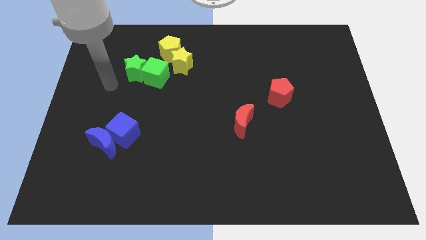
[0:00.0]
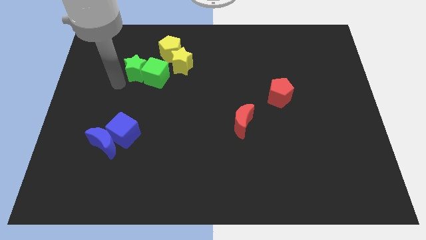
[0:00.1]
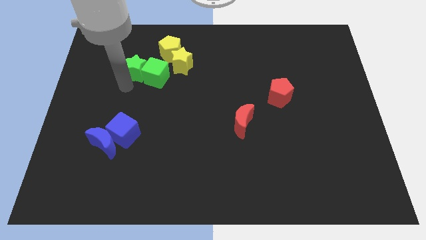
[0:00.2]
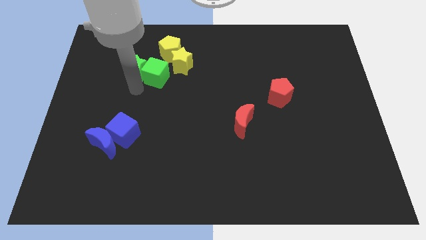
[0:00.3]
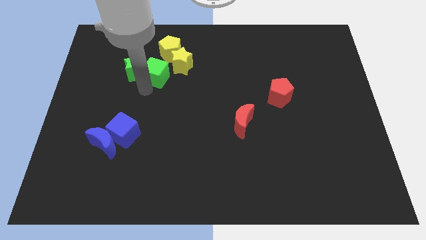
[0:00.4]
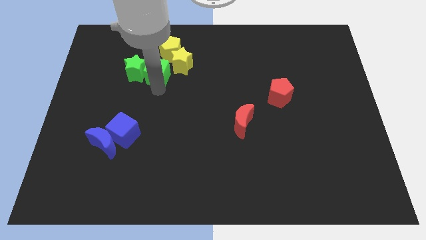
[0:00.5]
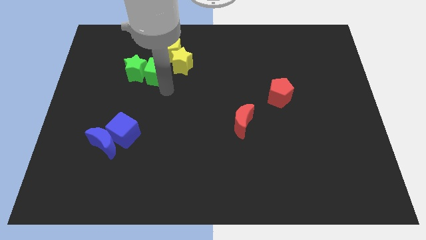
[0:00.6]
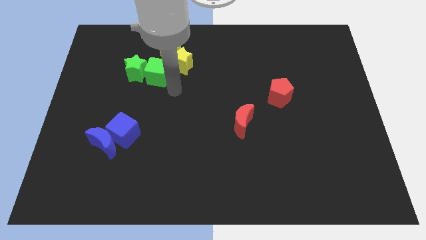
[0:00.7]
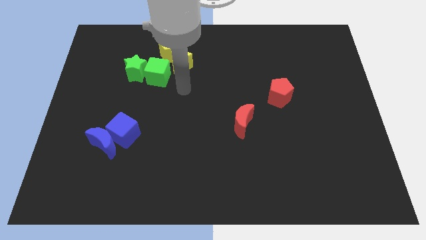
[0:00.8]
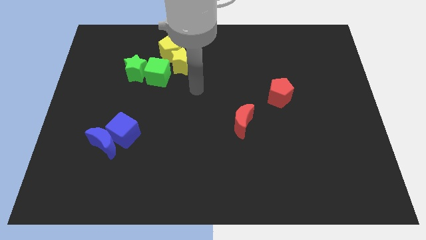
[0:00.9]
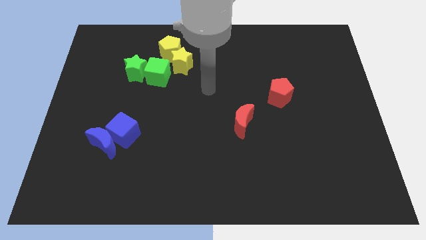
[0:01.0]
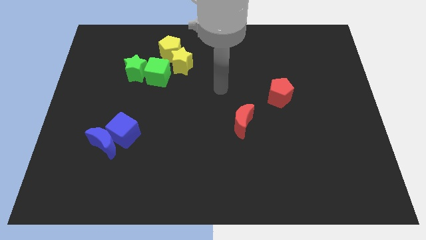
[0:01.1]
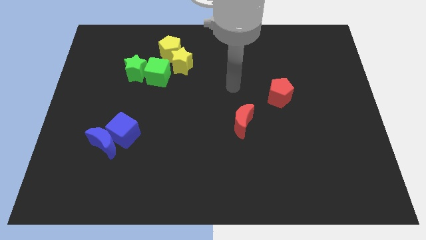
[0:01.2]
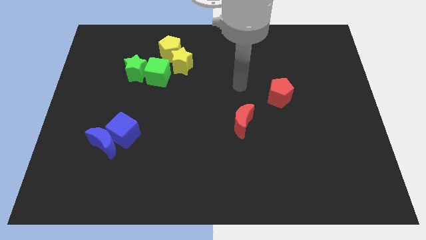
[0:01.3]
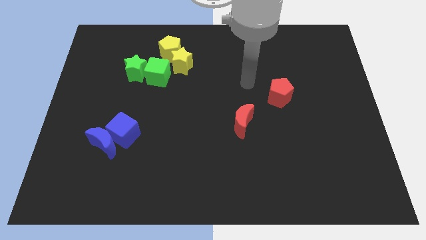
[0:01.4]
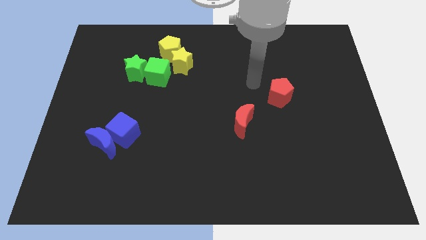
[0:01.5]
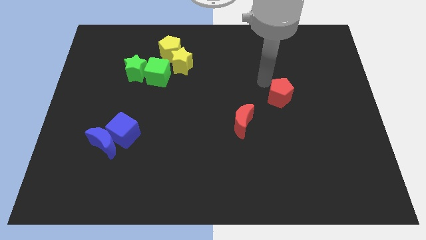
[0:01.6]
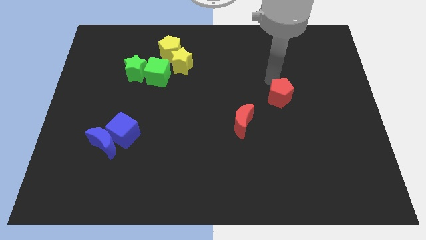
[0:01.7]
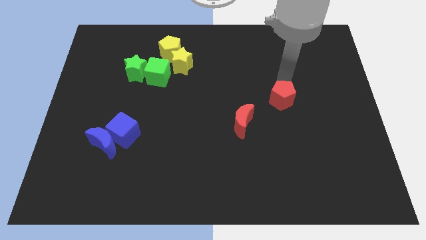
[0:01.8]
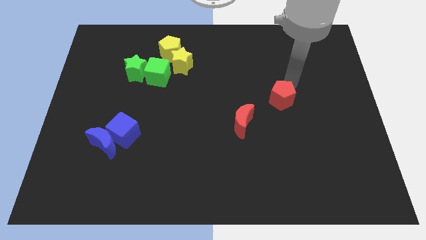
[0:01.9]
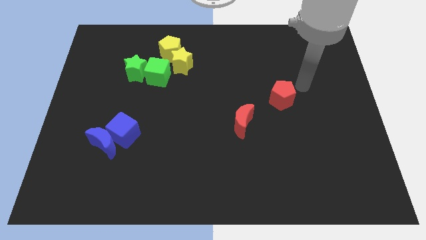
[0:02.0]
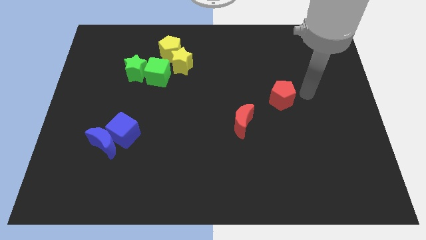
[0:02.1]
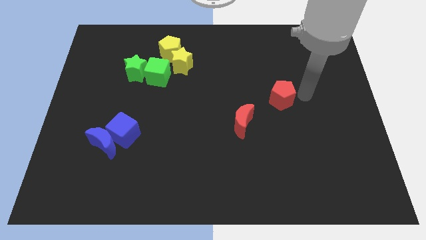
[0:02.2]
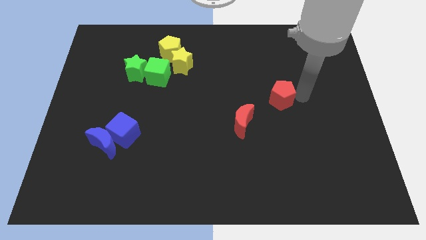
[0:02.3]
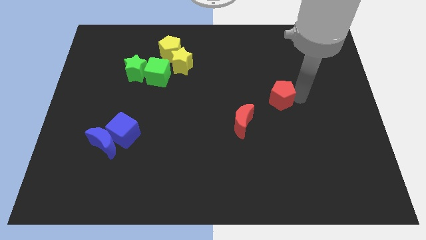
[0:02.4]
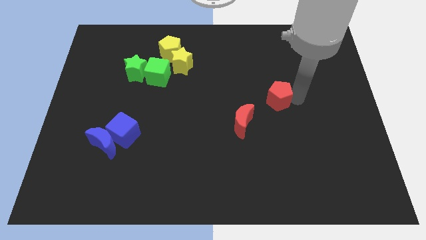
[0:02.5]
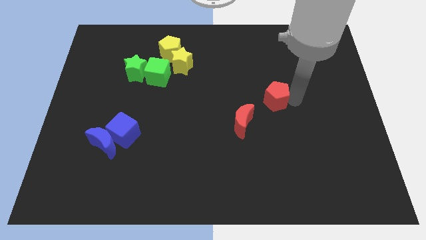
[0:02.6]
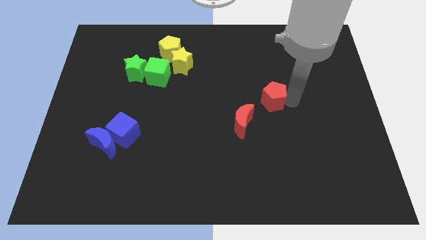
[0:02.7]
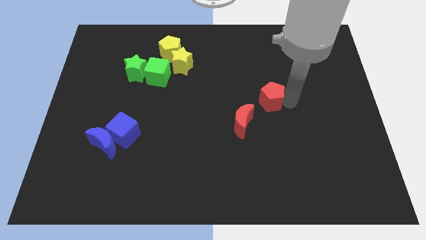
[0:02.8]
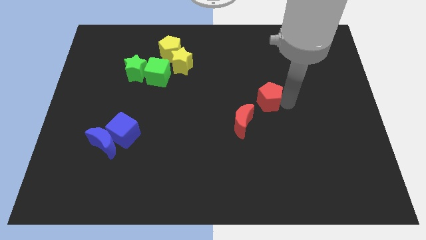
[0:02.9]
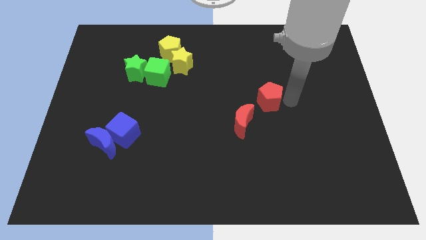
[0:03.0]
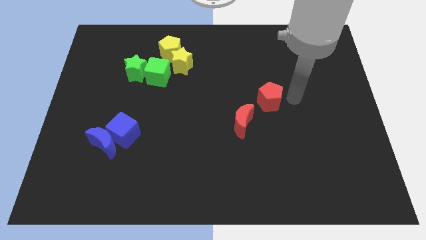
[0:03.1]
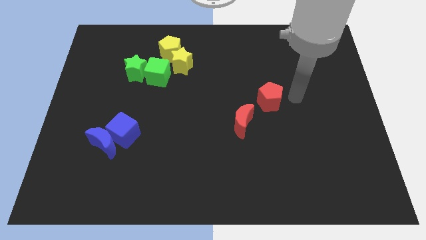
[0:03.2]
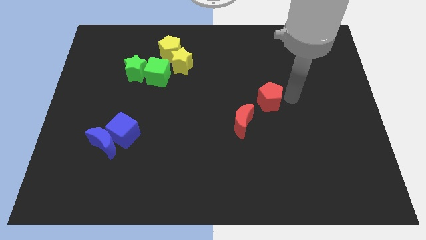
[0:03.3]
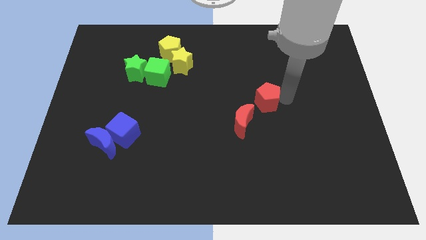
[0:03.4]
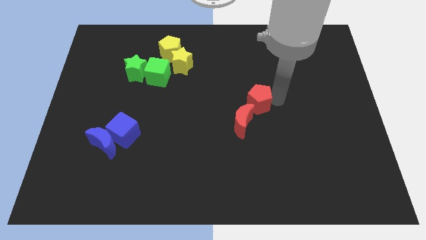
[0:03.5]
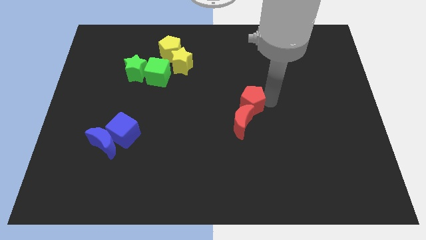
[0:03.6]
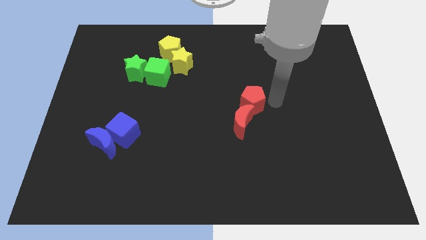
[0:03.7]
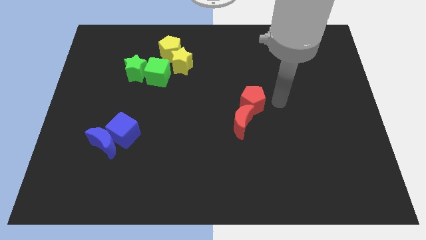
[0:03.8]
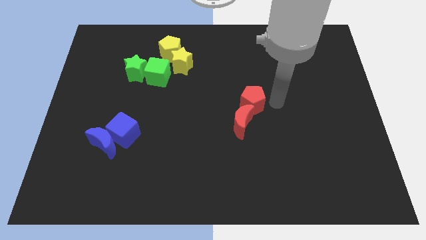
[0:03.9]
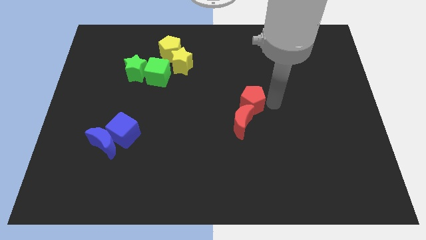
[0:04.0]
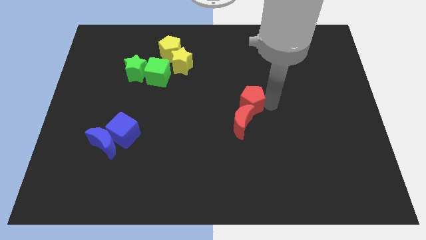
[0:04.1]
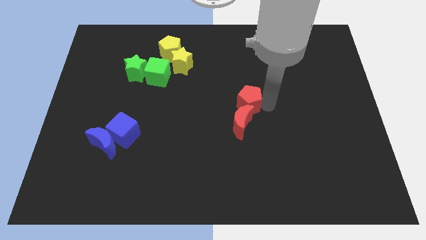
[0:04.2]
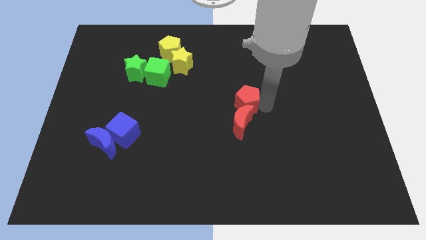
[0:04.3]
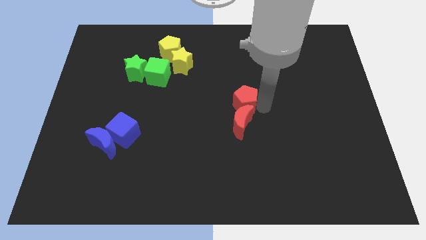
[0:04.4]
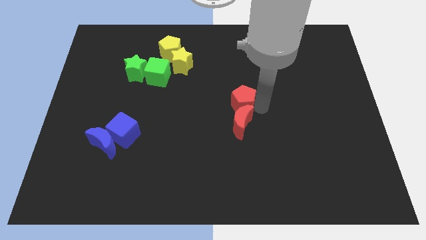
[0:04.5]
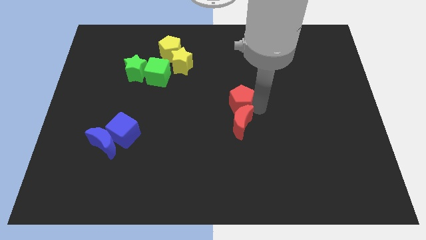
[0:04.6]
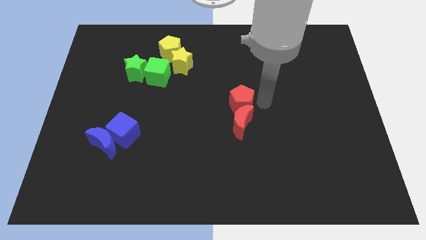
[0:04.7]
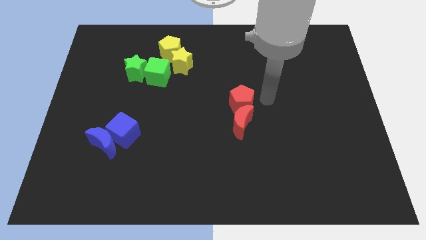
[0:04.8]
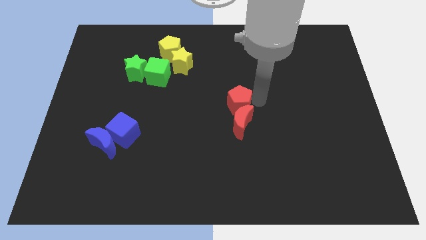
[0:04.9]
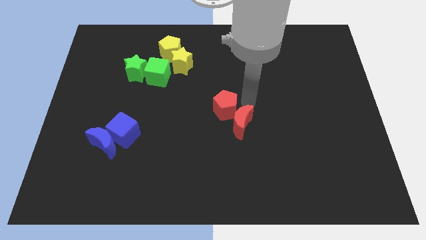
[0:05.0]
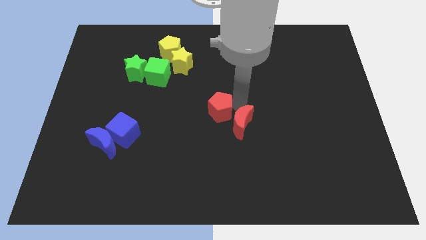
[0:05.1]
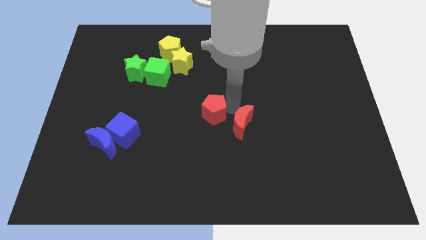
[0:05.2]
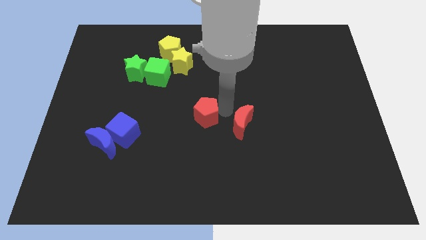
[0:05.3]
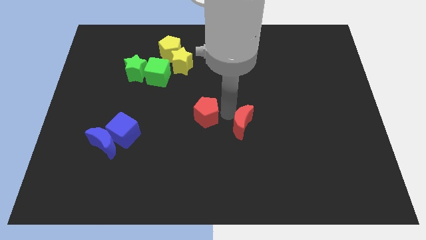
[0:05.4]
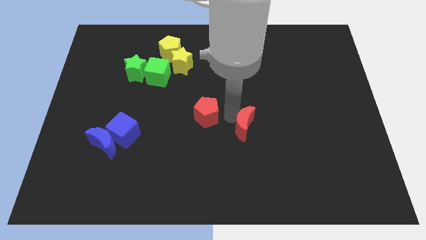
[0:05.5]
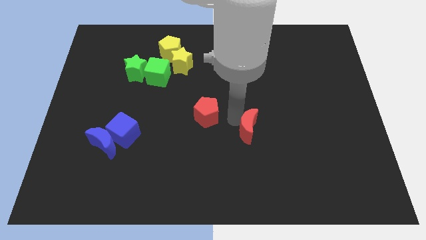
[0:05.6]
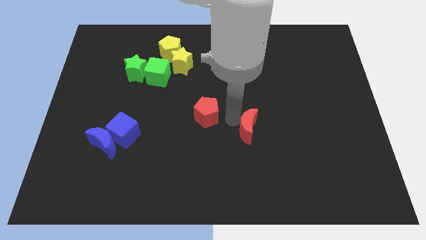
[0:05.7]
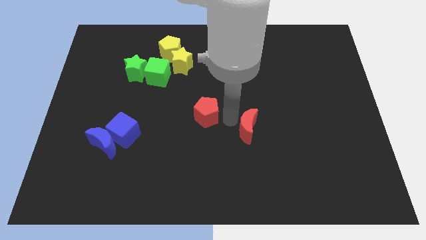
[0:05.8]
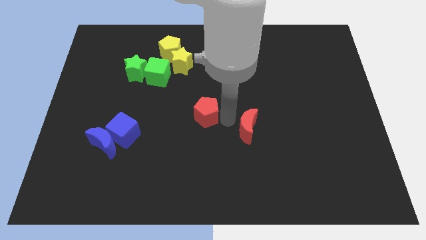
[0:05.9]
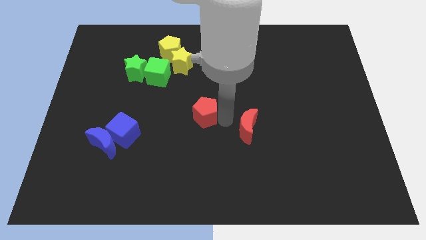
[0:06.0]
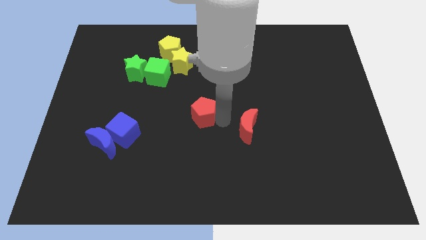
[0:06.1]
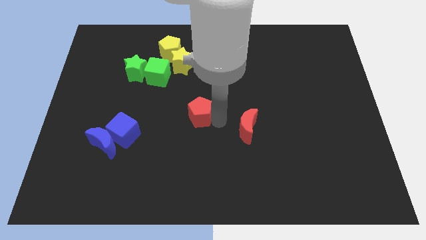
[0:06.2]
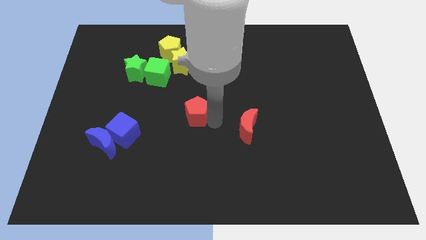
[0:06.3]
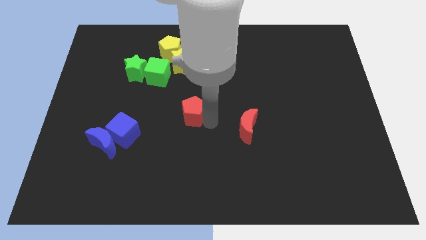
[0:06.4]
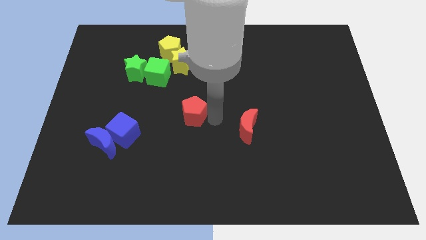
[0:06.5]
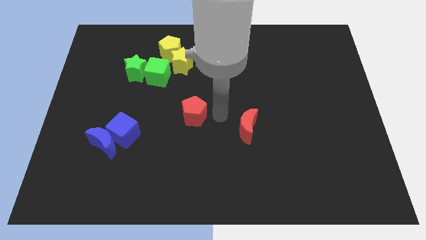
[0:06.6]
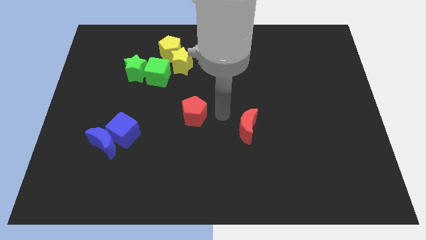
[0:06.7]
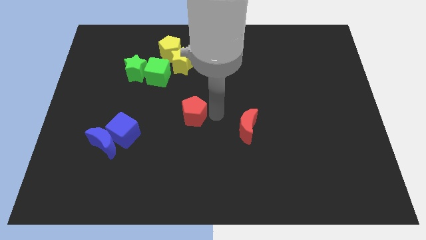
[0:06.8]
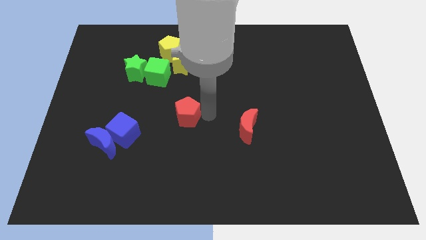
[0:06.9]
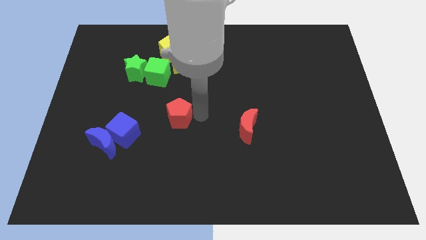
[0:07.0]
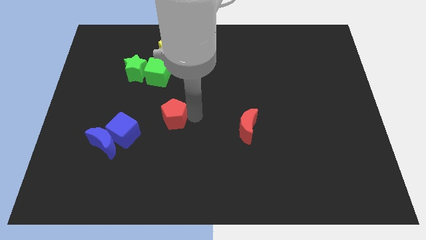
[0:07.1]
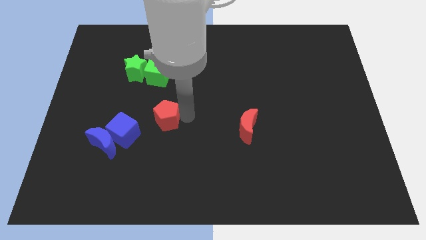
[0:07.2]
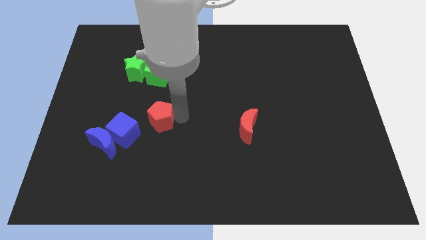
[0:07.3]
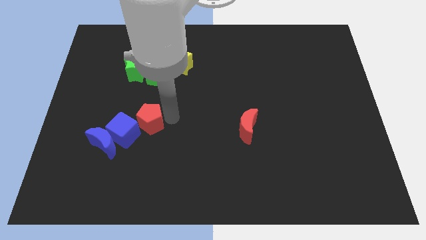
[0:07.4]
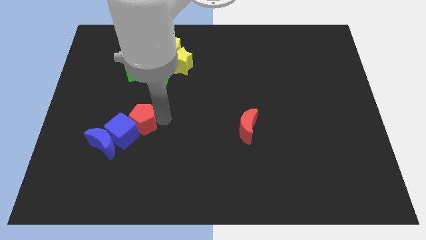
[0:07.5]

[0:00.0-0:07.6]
put the red pentagon towards the blue cube

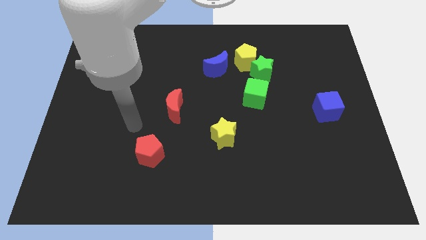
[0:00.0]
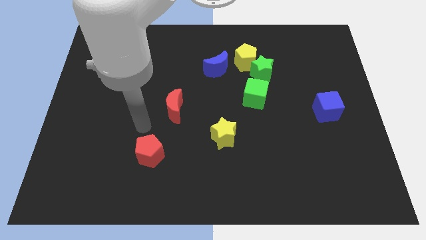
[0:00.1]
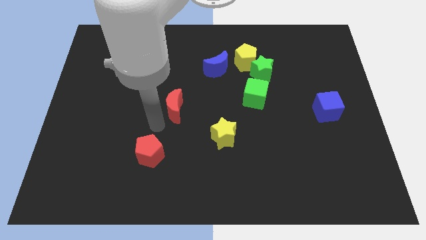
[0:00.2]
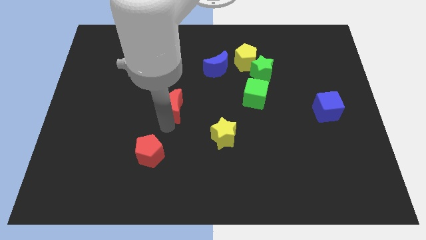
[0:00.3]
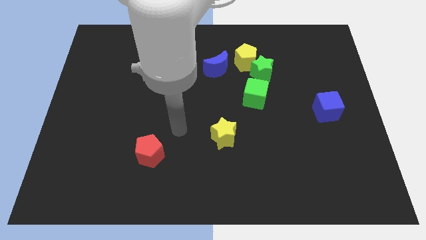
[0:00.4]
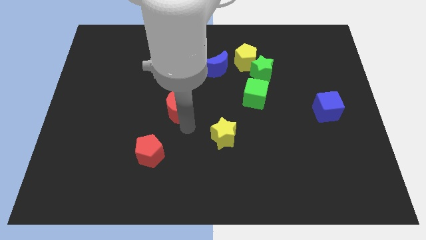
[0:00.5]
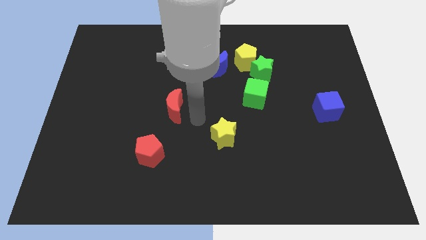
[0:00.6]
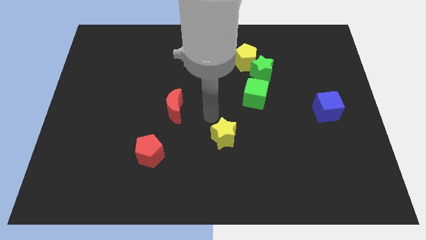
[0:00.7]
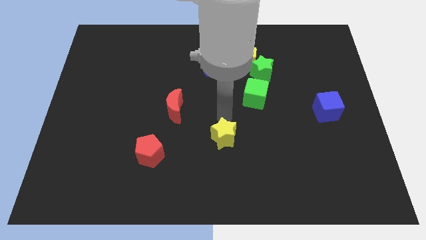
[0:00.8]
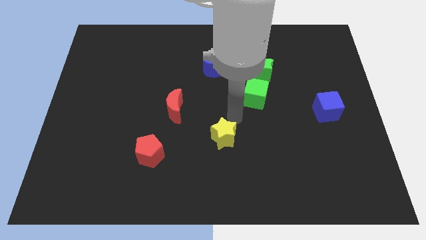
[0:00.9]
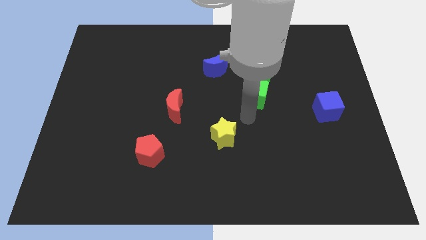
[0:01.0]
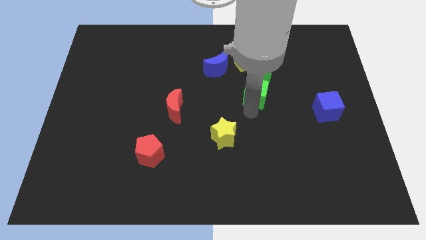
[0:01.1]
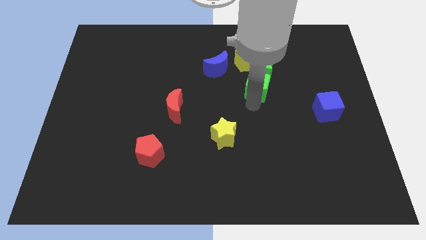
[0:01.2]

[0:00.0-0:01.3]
move the green cube close to the green star
